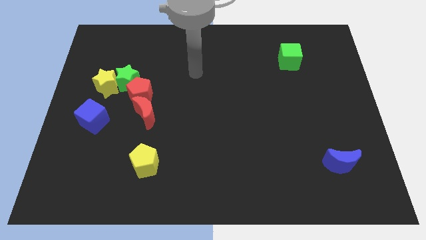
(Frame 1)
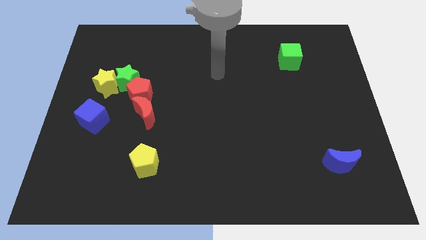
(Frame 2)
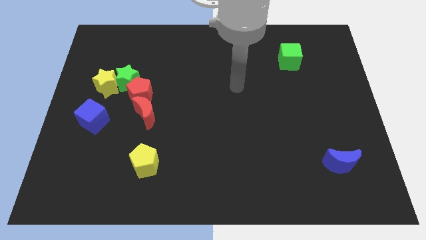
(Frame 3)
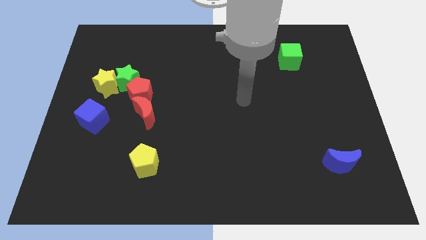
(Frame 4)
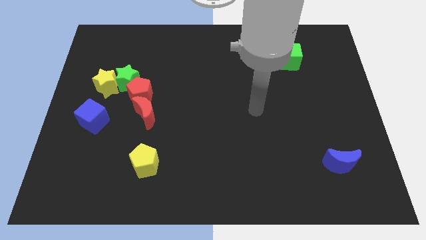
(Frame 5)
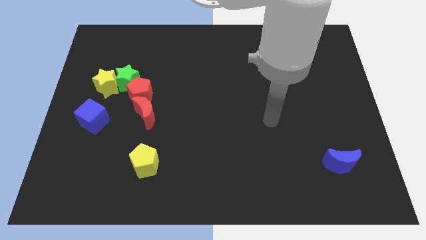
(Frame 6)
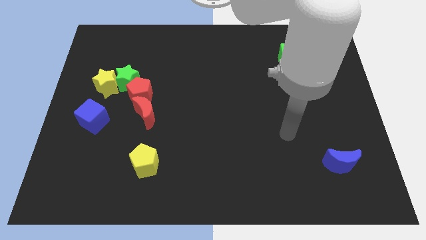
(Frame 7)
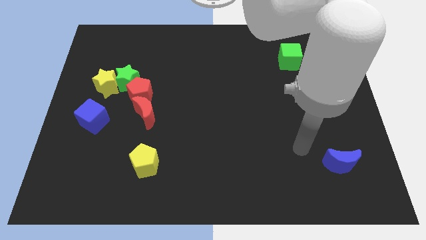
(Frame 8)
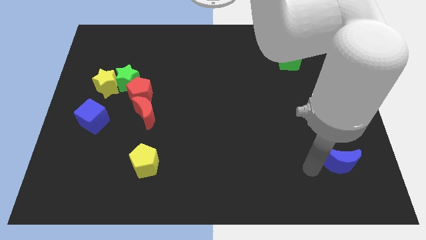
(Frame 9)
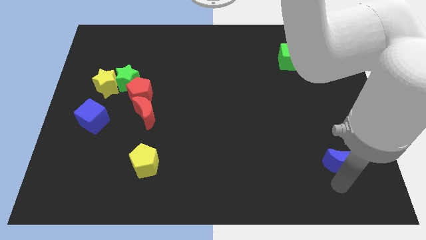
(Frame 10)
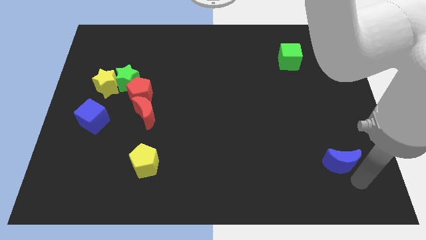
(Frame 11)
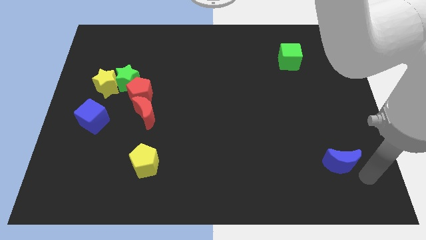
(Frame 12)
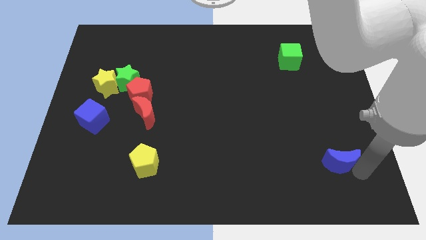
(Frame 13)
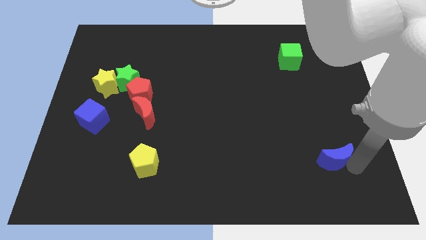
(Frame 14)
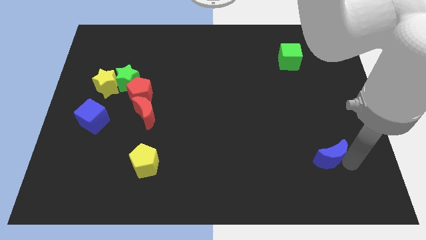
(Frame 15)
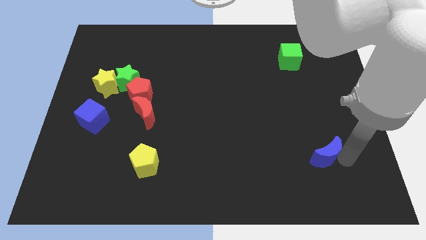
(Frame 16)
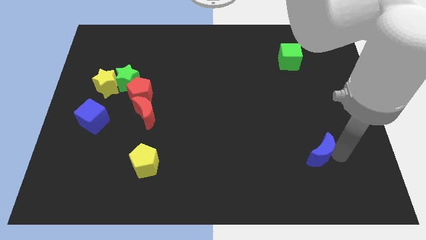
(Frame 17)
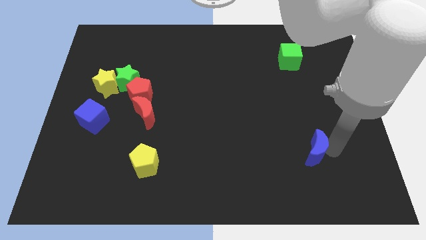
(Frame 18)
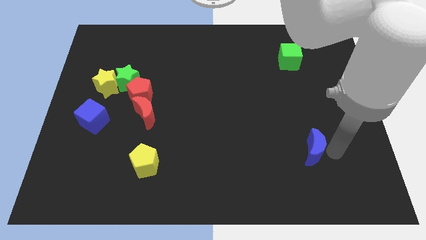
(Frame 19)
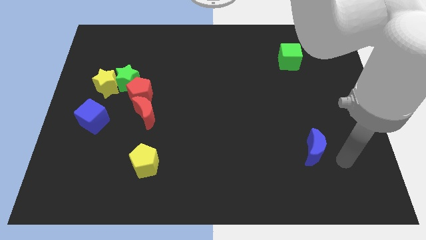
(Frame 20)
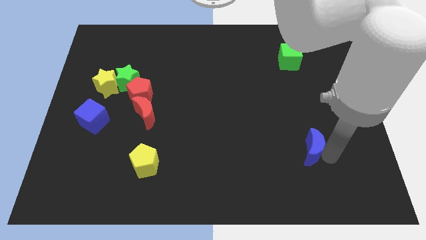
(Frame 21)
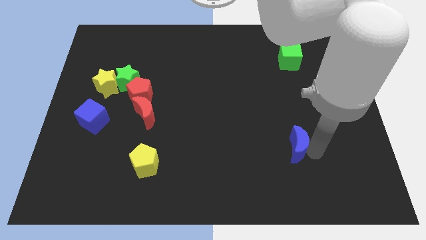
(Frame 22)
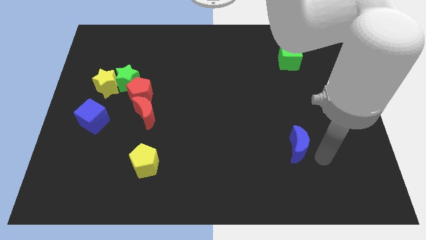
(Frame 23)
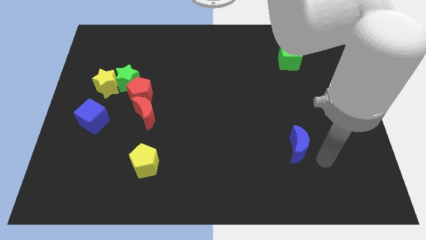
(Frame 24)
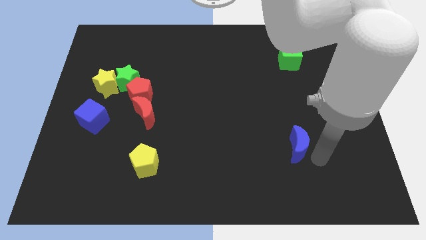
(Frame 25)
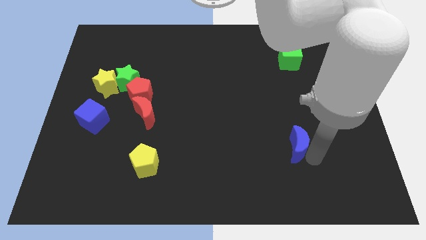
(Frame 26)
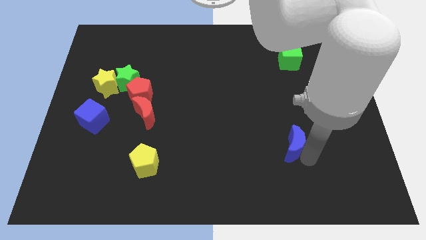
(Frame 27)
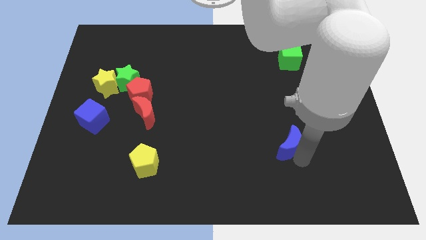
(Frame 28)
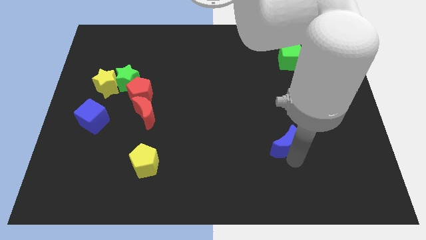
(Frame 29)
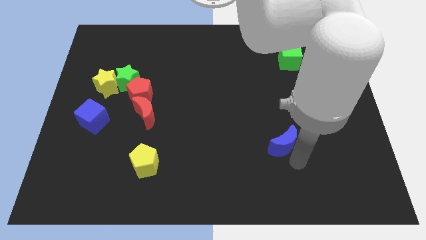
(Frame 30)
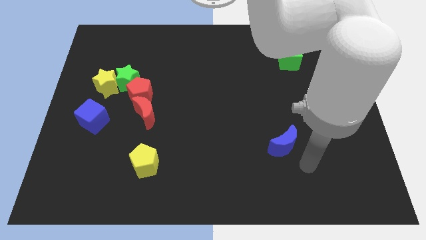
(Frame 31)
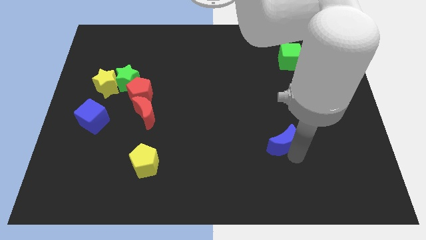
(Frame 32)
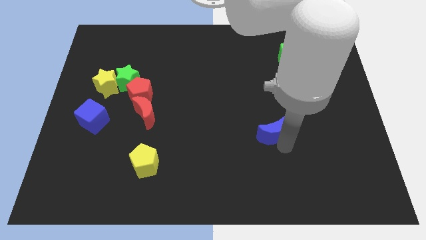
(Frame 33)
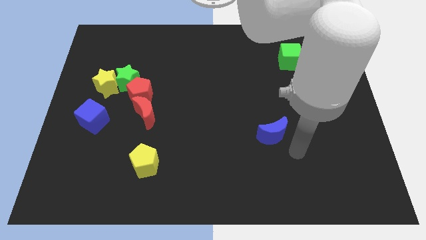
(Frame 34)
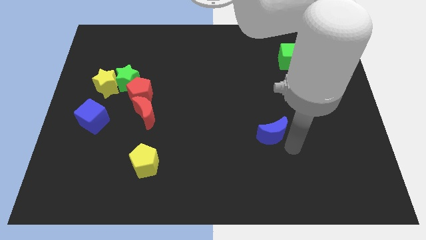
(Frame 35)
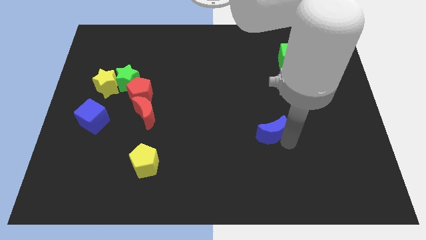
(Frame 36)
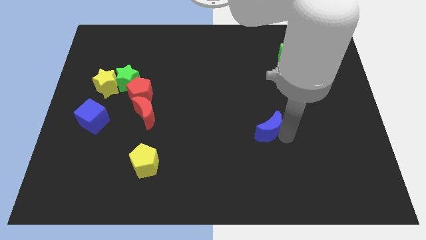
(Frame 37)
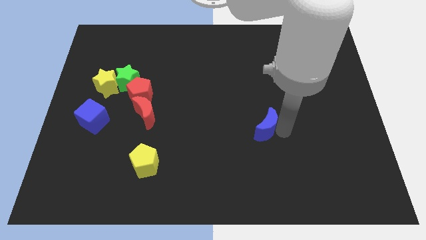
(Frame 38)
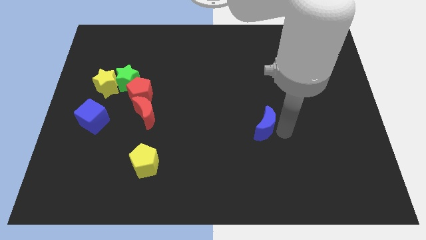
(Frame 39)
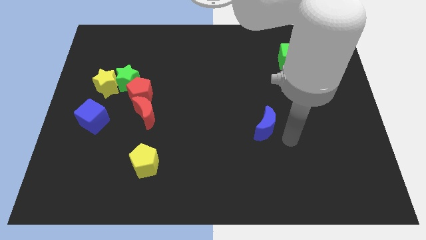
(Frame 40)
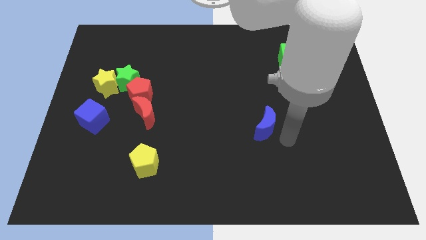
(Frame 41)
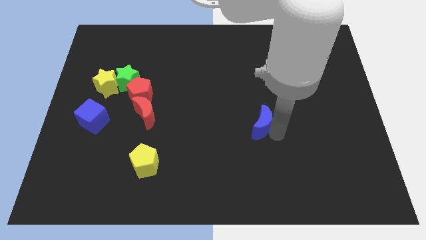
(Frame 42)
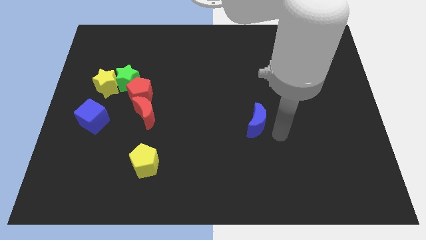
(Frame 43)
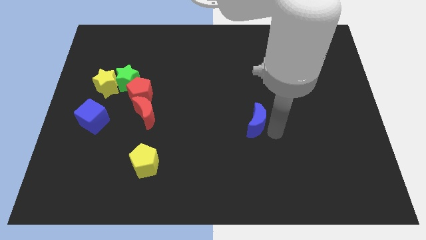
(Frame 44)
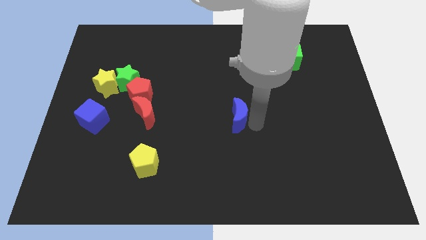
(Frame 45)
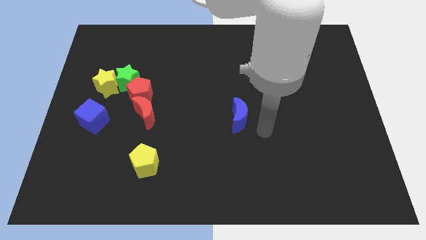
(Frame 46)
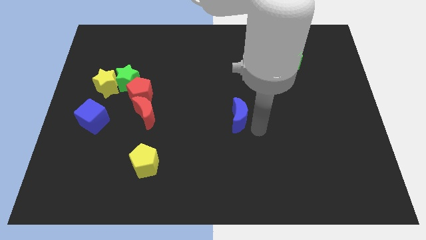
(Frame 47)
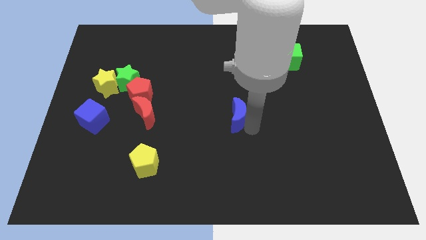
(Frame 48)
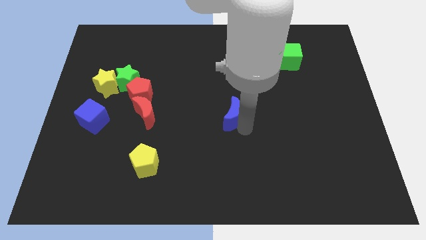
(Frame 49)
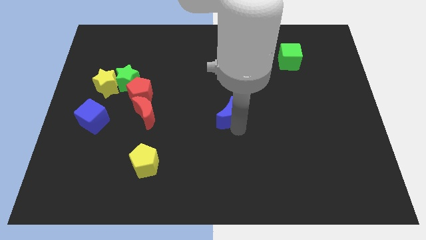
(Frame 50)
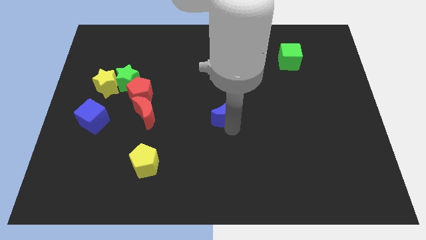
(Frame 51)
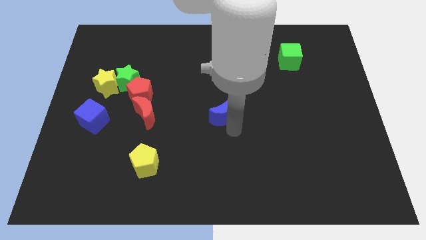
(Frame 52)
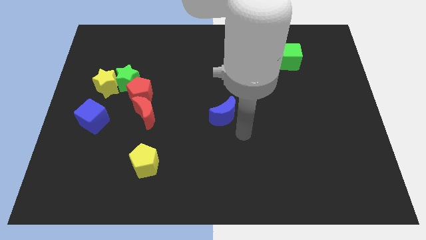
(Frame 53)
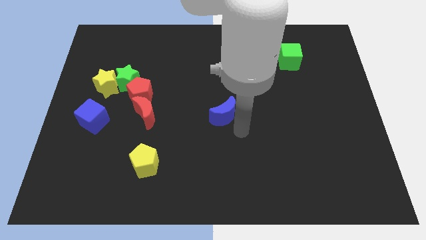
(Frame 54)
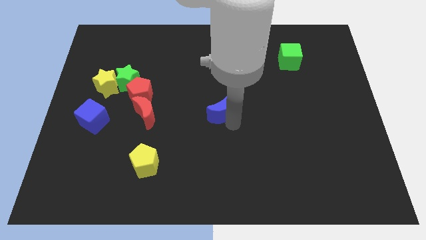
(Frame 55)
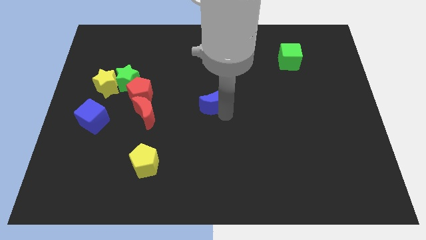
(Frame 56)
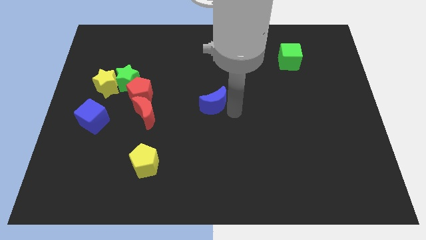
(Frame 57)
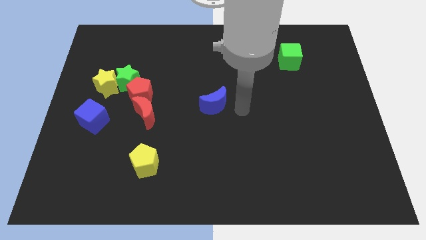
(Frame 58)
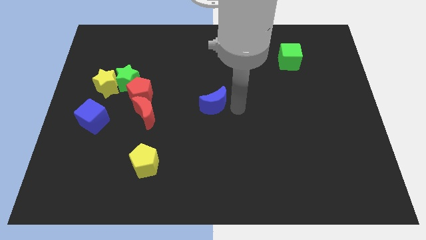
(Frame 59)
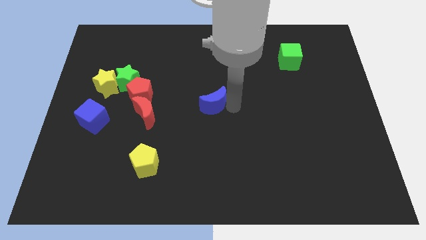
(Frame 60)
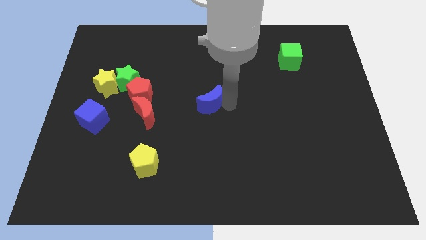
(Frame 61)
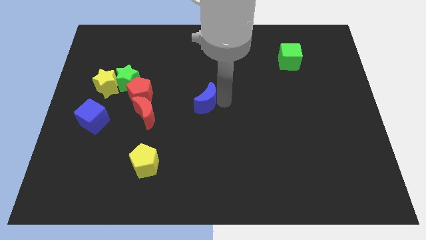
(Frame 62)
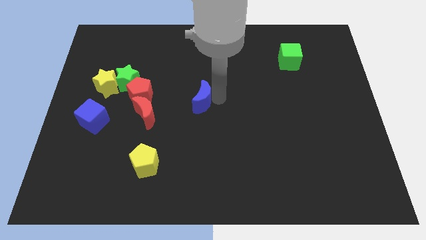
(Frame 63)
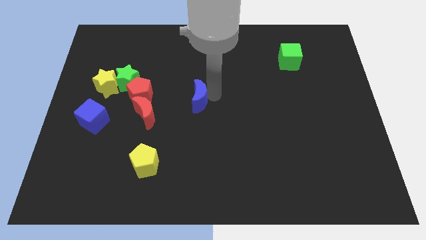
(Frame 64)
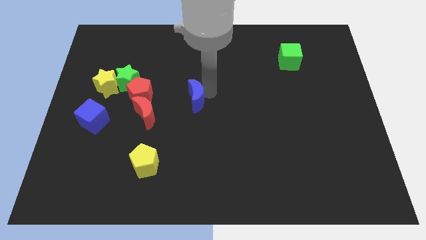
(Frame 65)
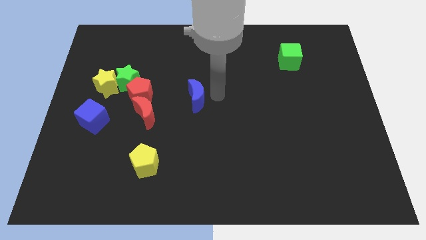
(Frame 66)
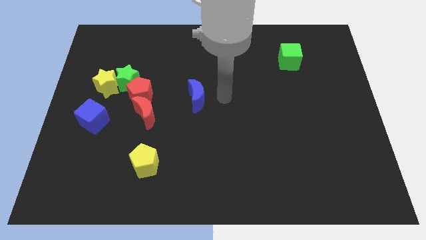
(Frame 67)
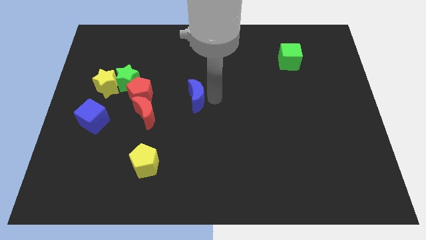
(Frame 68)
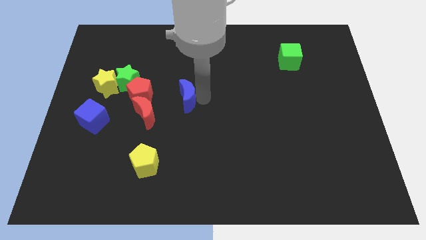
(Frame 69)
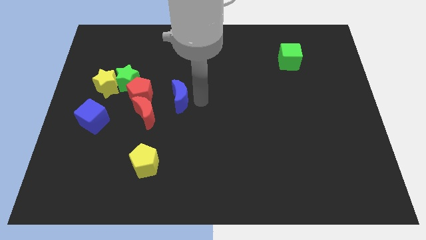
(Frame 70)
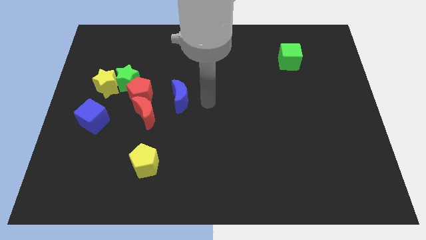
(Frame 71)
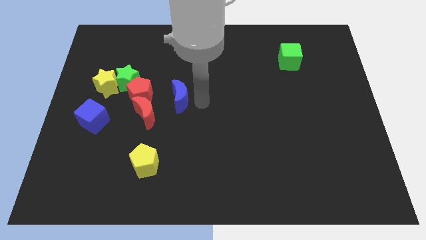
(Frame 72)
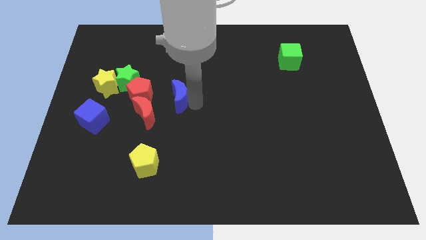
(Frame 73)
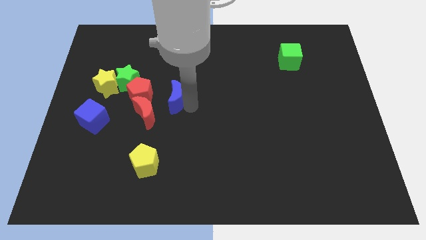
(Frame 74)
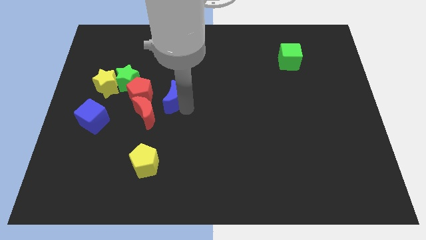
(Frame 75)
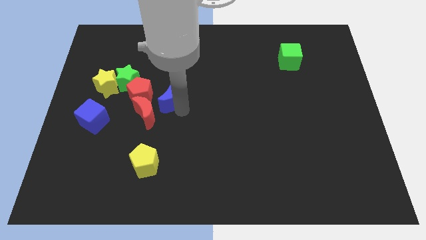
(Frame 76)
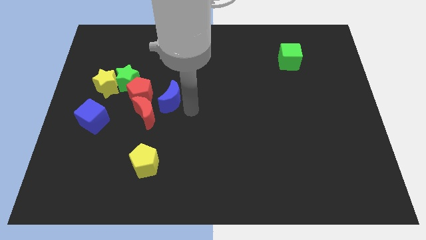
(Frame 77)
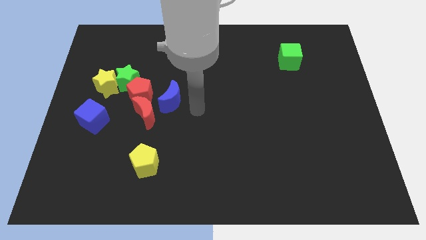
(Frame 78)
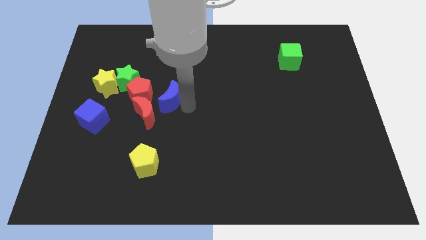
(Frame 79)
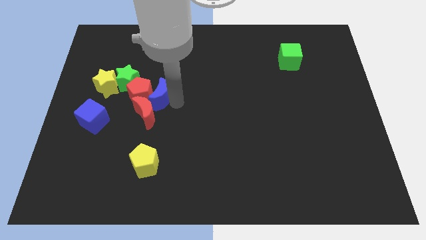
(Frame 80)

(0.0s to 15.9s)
move the blue moon next to the red pentagon
